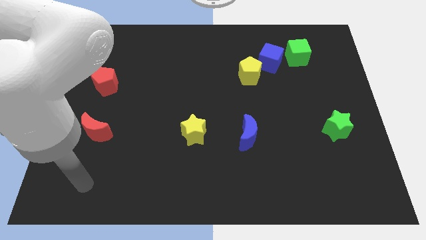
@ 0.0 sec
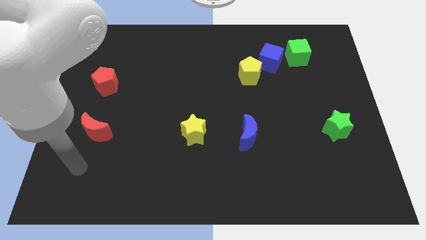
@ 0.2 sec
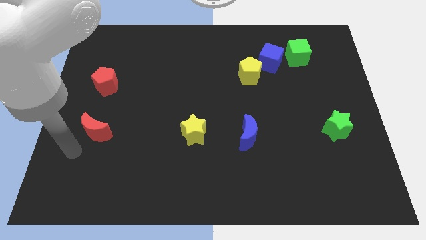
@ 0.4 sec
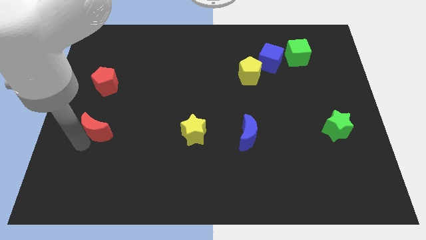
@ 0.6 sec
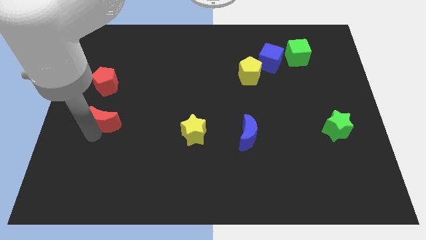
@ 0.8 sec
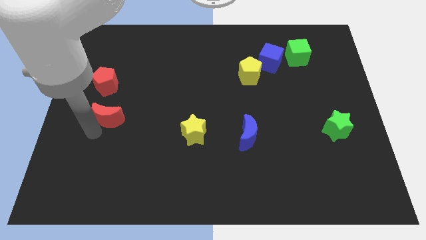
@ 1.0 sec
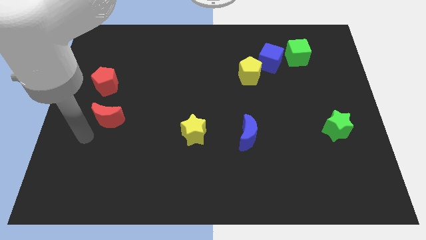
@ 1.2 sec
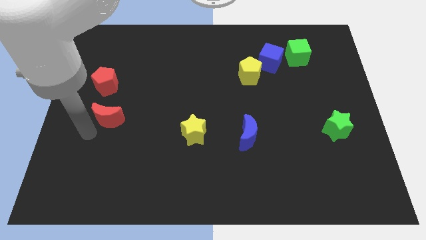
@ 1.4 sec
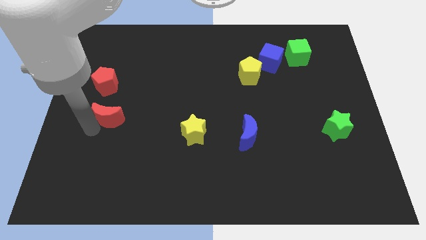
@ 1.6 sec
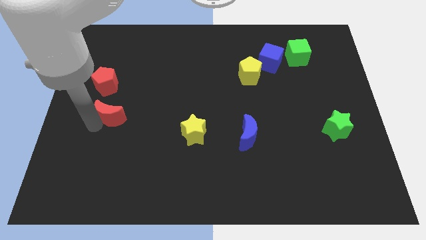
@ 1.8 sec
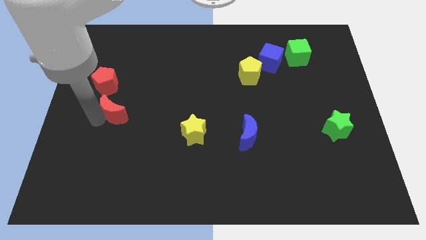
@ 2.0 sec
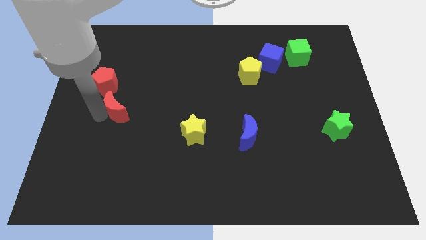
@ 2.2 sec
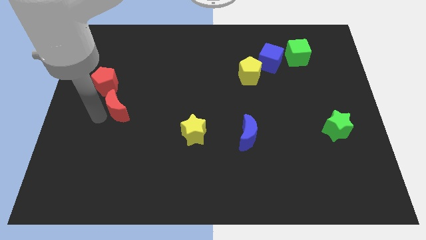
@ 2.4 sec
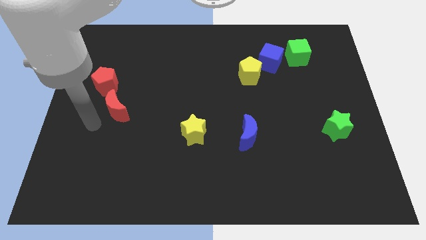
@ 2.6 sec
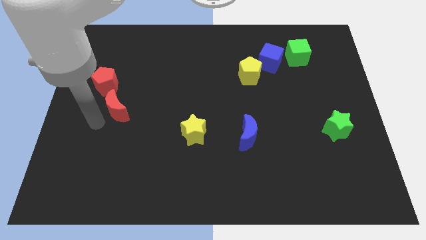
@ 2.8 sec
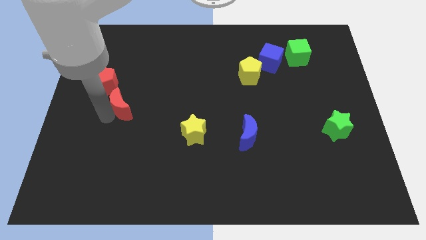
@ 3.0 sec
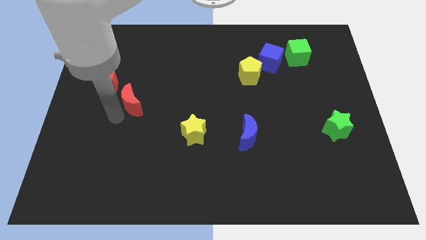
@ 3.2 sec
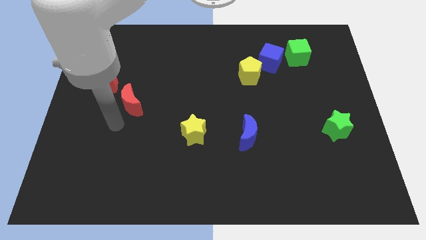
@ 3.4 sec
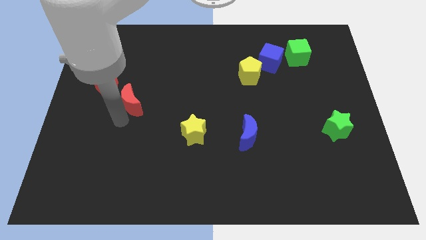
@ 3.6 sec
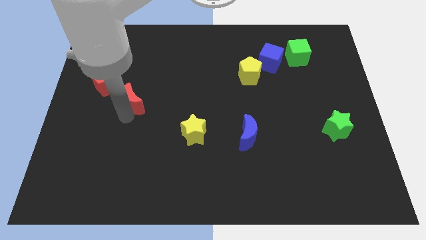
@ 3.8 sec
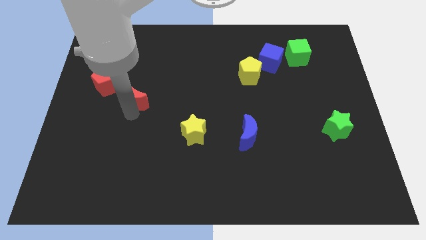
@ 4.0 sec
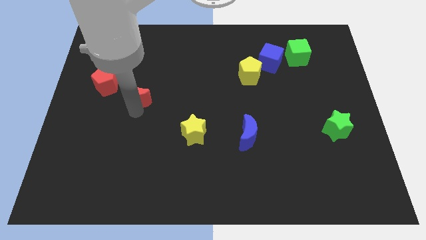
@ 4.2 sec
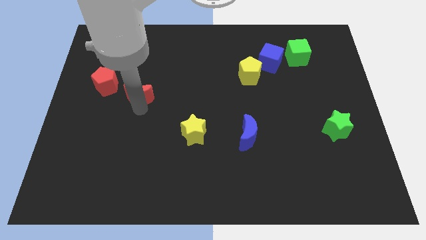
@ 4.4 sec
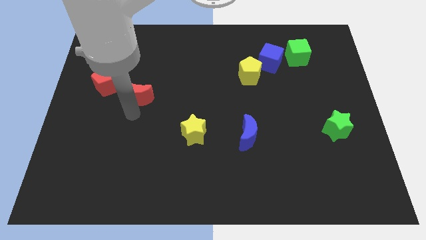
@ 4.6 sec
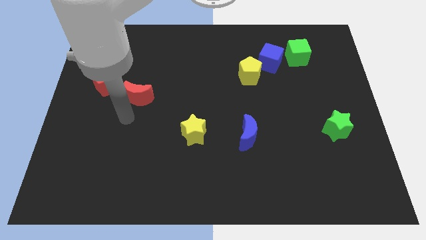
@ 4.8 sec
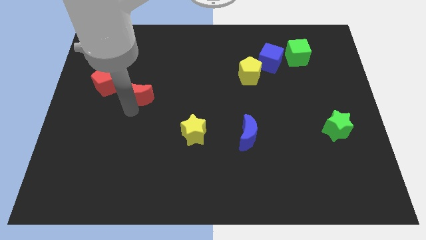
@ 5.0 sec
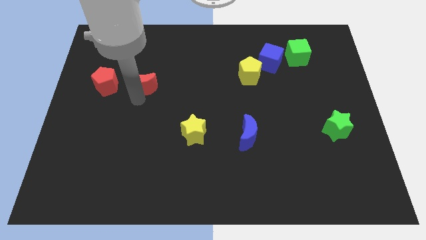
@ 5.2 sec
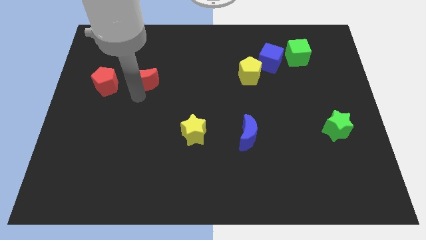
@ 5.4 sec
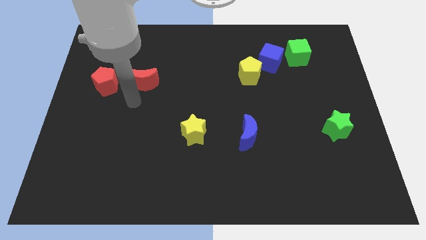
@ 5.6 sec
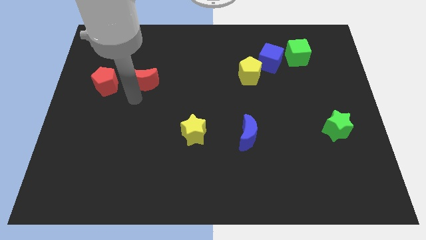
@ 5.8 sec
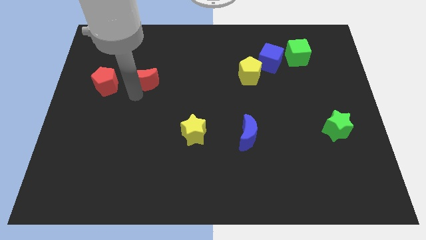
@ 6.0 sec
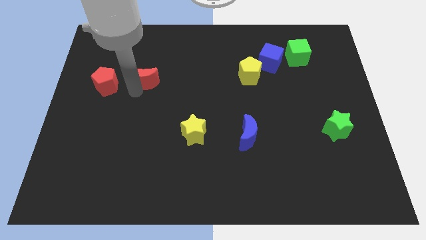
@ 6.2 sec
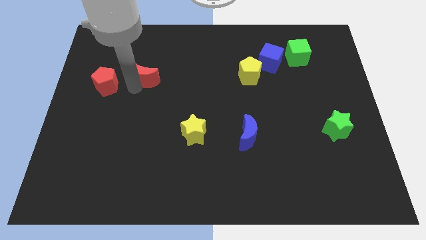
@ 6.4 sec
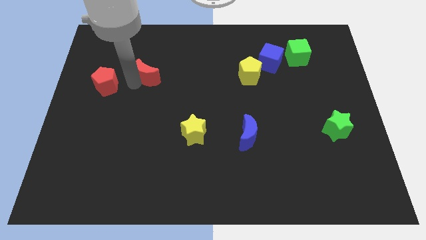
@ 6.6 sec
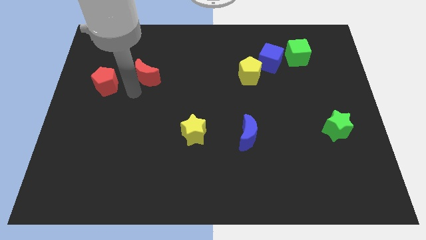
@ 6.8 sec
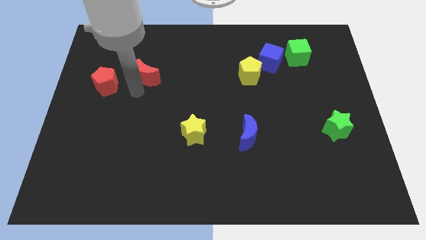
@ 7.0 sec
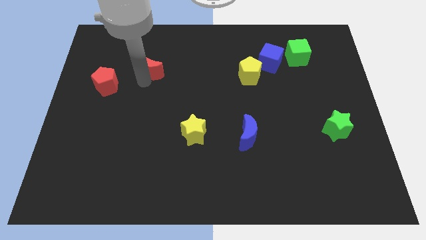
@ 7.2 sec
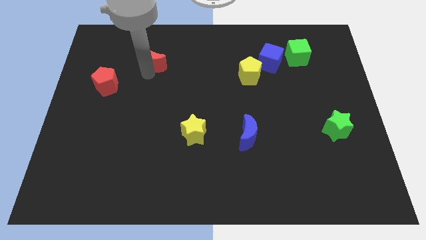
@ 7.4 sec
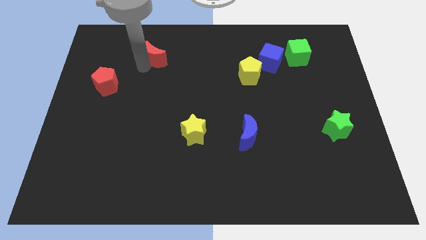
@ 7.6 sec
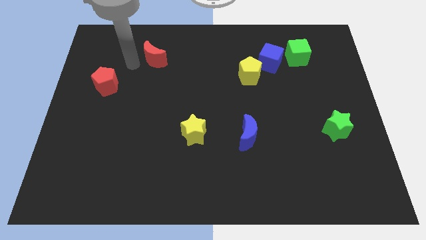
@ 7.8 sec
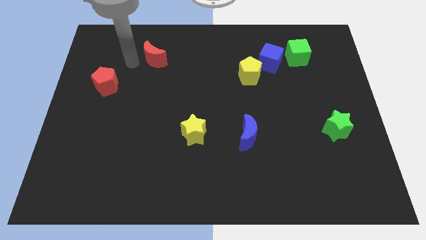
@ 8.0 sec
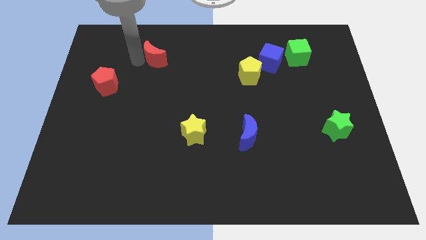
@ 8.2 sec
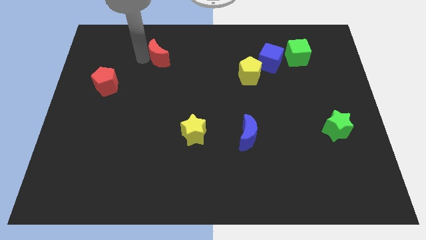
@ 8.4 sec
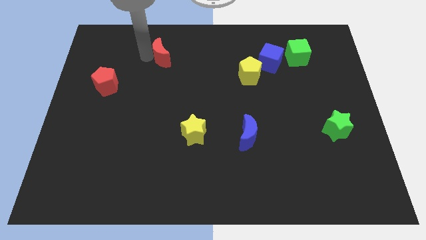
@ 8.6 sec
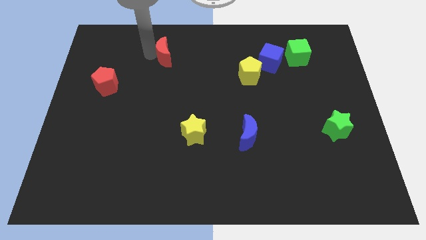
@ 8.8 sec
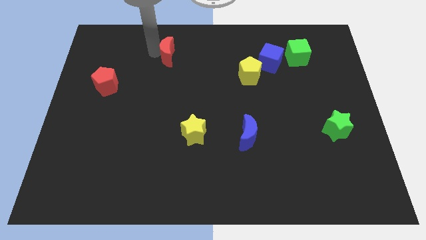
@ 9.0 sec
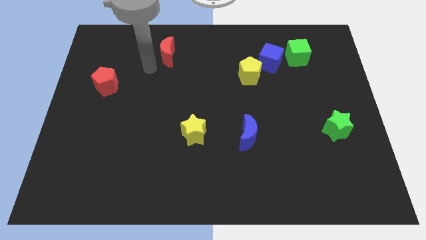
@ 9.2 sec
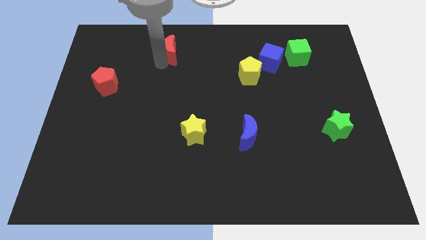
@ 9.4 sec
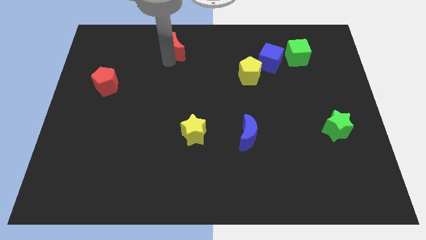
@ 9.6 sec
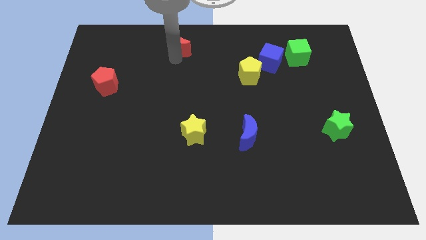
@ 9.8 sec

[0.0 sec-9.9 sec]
put the red moon to the top

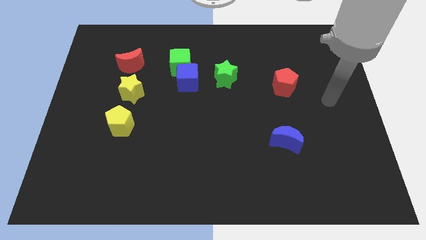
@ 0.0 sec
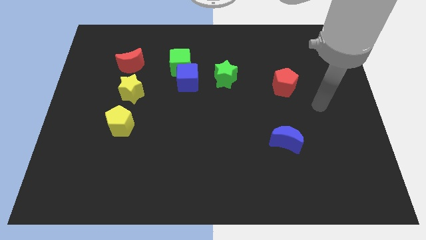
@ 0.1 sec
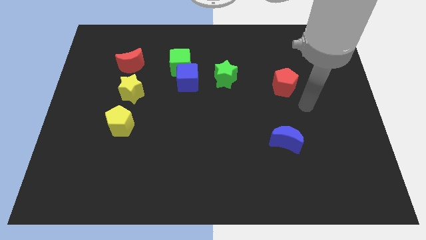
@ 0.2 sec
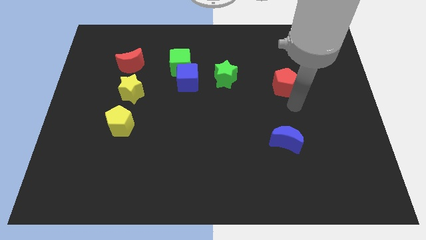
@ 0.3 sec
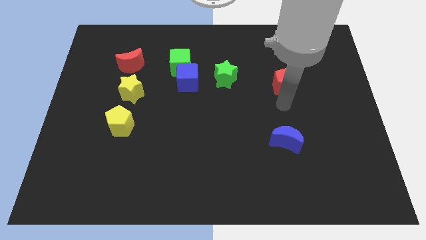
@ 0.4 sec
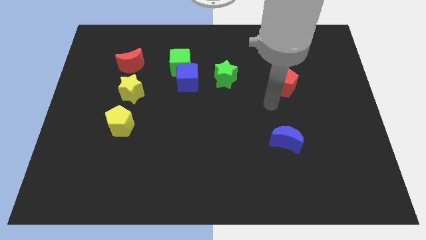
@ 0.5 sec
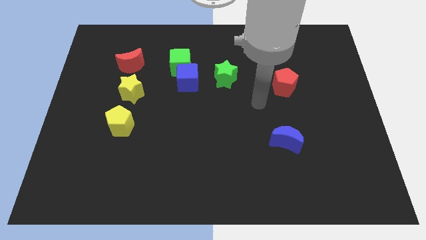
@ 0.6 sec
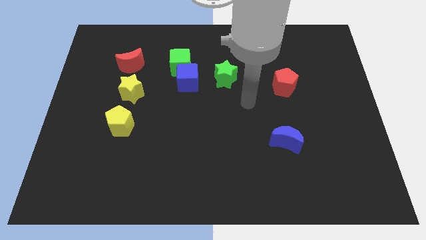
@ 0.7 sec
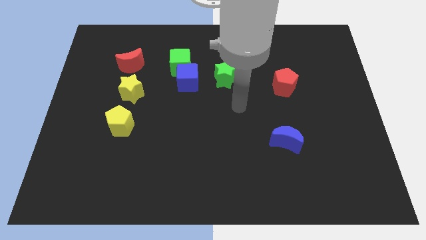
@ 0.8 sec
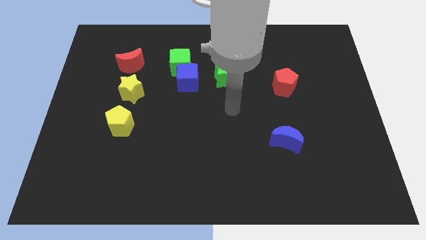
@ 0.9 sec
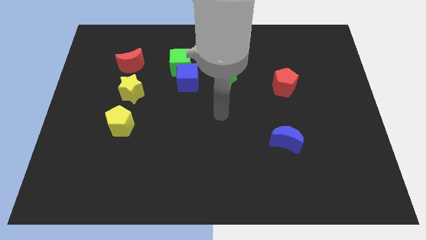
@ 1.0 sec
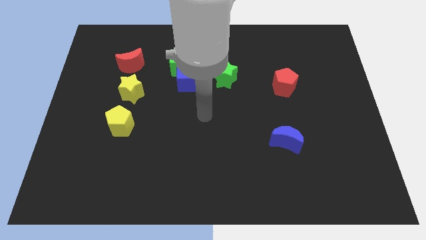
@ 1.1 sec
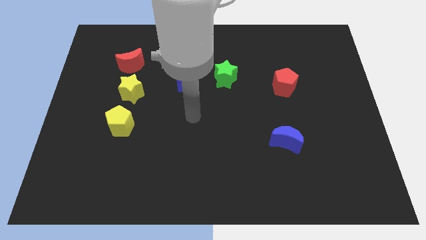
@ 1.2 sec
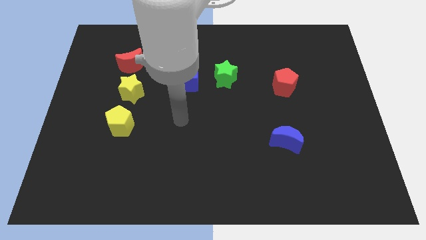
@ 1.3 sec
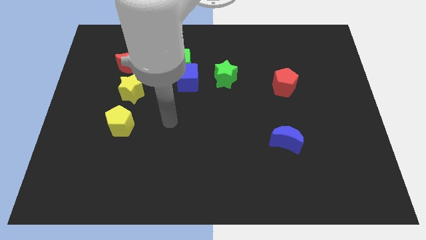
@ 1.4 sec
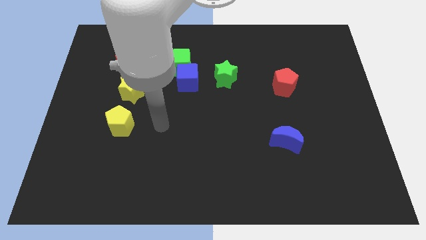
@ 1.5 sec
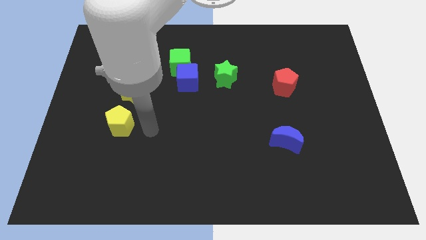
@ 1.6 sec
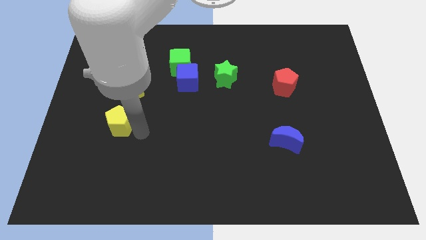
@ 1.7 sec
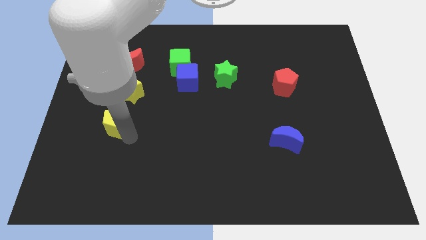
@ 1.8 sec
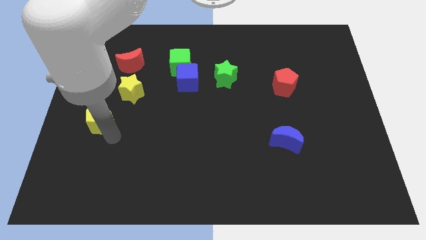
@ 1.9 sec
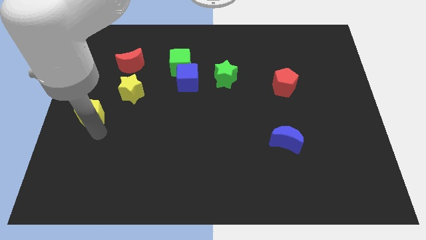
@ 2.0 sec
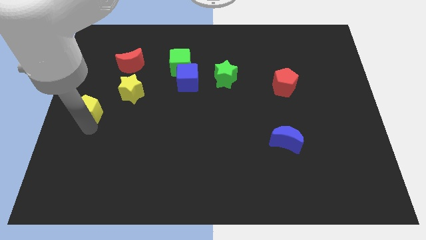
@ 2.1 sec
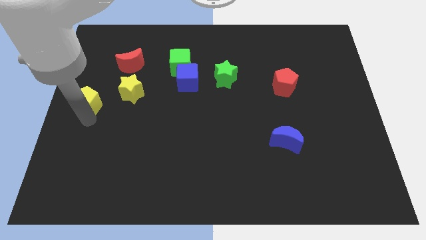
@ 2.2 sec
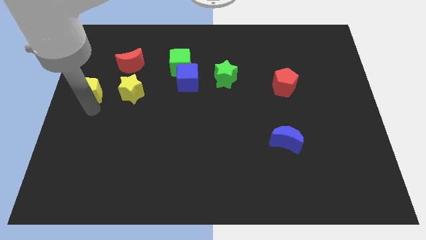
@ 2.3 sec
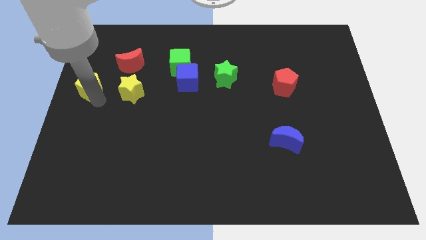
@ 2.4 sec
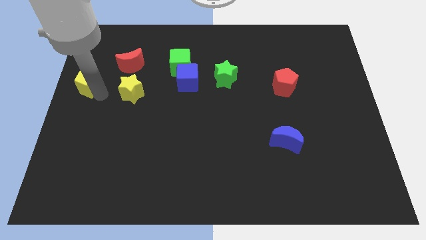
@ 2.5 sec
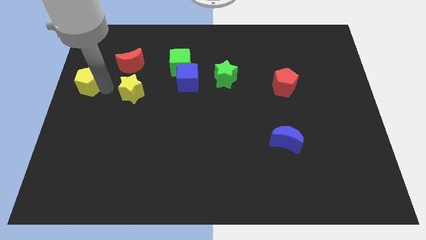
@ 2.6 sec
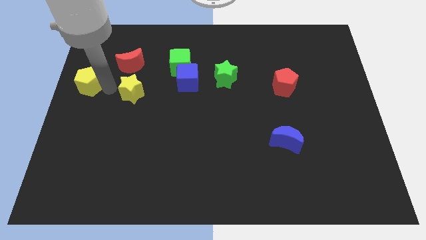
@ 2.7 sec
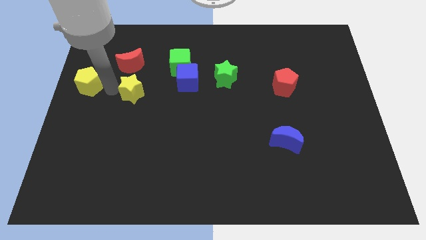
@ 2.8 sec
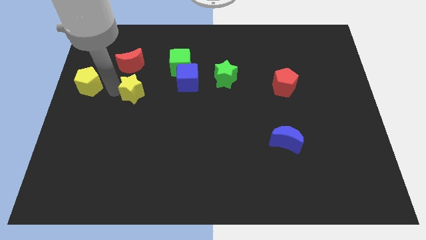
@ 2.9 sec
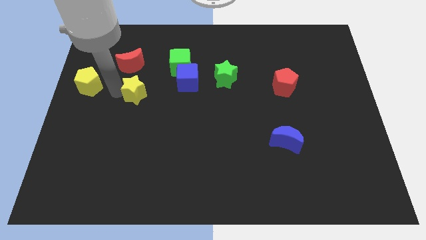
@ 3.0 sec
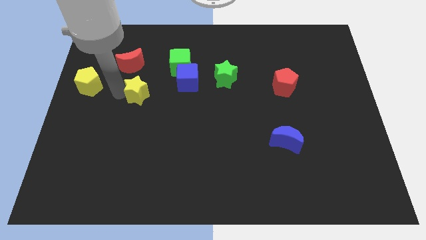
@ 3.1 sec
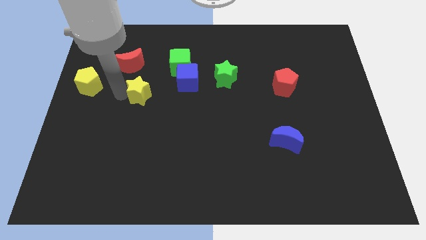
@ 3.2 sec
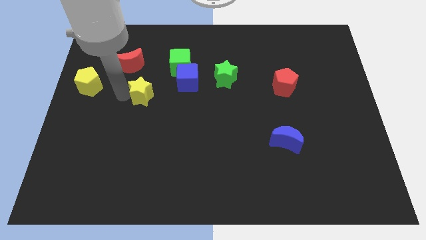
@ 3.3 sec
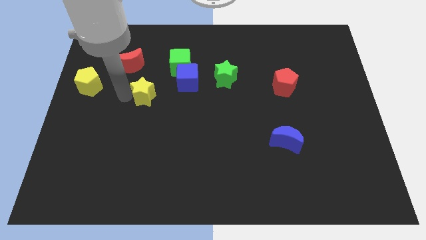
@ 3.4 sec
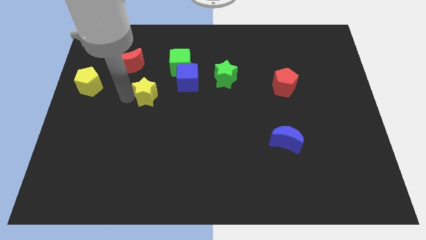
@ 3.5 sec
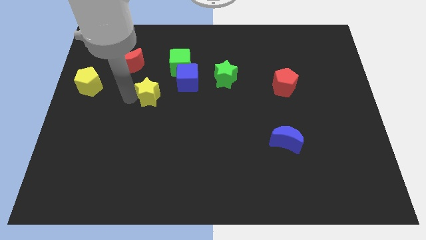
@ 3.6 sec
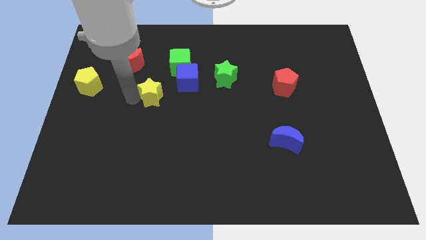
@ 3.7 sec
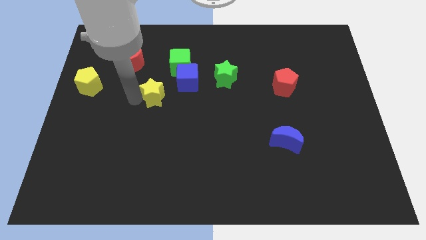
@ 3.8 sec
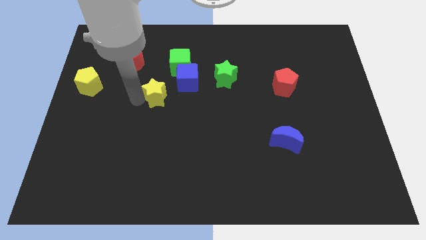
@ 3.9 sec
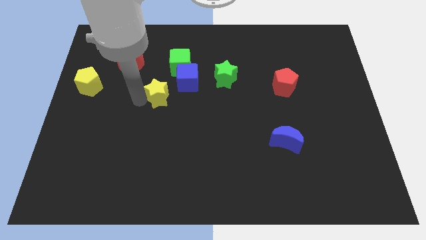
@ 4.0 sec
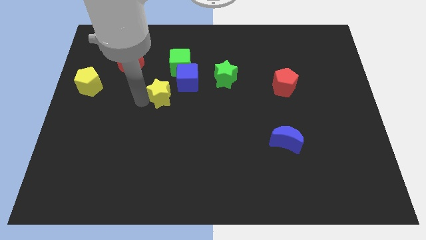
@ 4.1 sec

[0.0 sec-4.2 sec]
put the yellow star to the center
